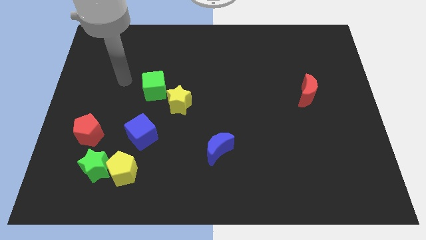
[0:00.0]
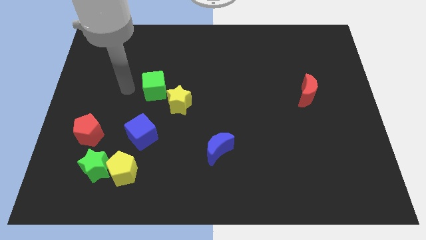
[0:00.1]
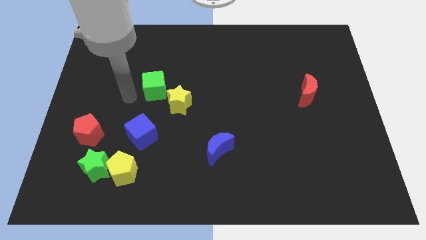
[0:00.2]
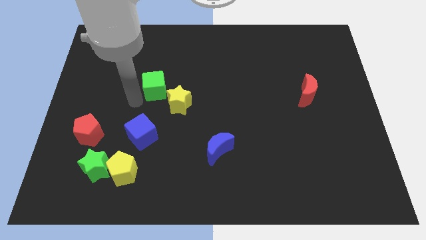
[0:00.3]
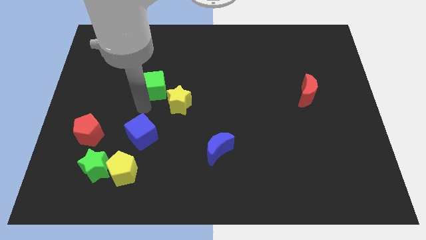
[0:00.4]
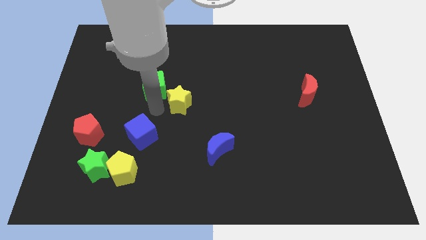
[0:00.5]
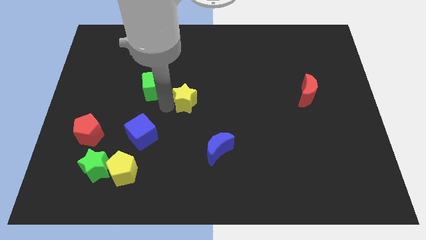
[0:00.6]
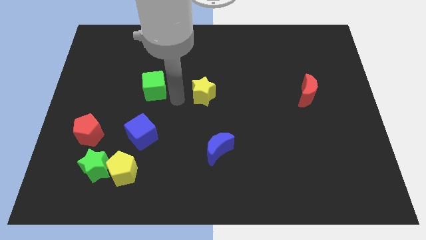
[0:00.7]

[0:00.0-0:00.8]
separate the green cube from the yellow star

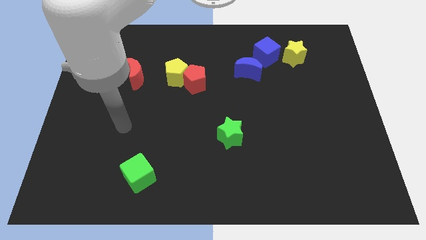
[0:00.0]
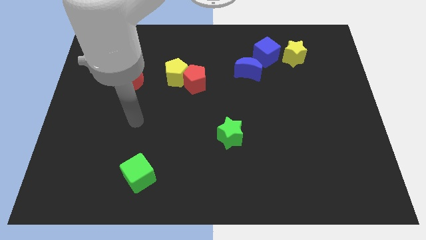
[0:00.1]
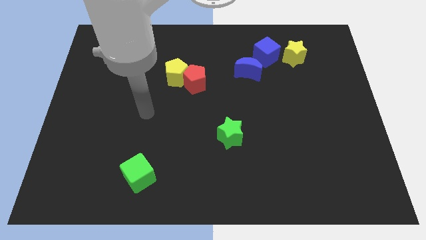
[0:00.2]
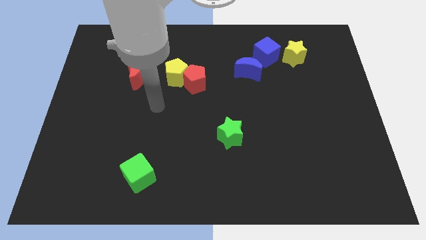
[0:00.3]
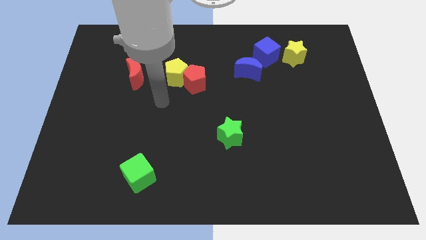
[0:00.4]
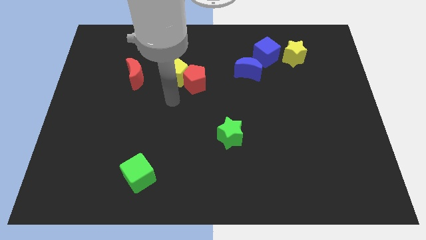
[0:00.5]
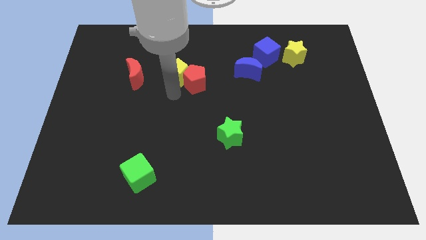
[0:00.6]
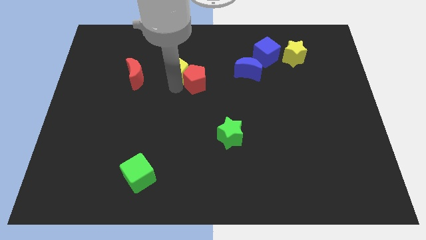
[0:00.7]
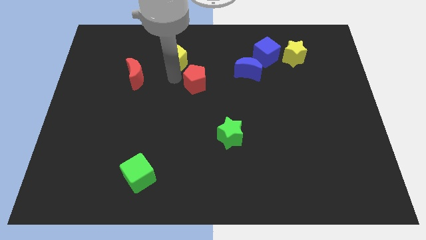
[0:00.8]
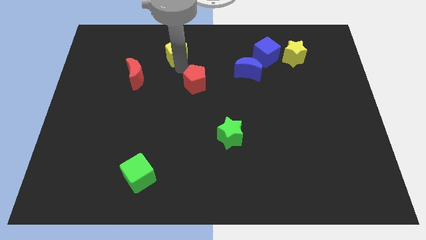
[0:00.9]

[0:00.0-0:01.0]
move the red pentagon away from the yellow pentagon

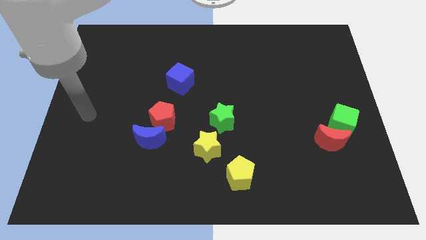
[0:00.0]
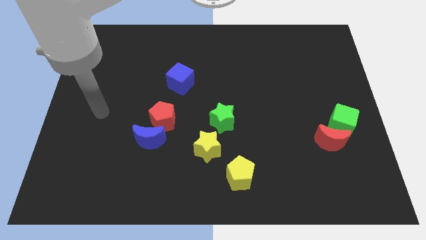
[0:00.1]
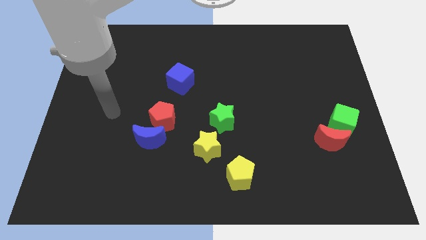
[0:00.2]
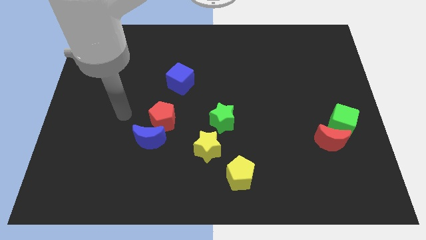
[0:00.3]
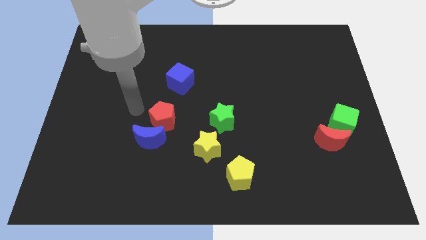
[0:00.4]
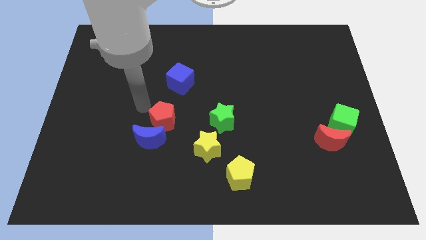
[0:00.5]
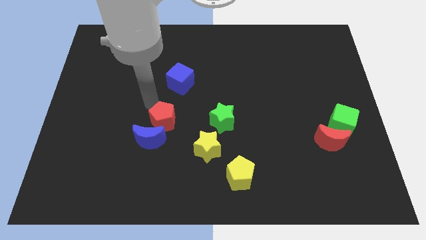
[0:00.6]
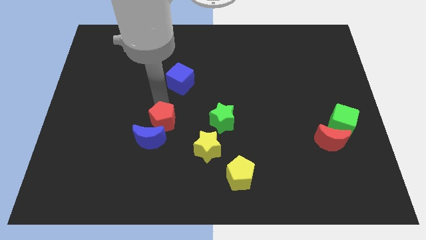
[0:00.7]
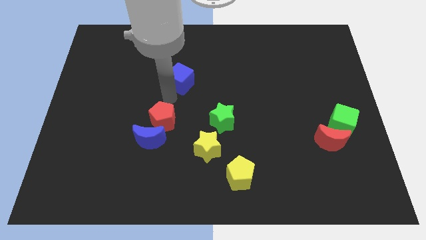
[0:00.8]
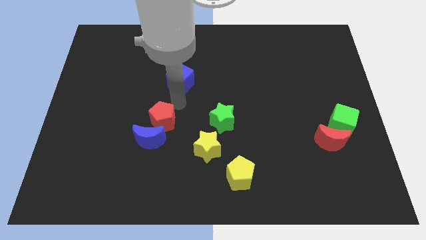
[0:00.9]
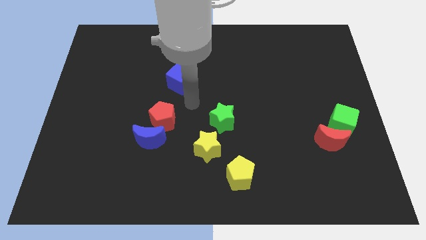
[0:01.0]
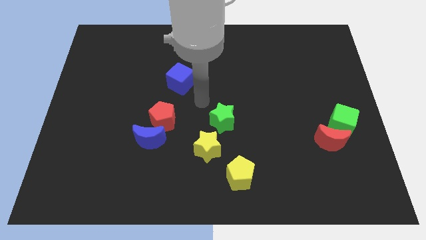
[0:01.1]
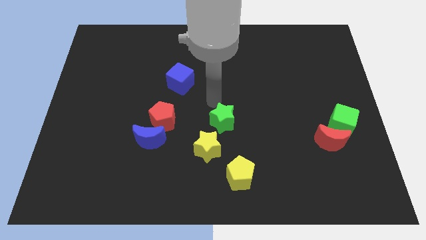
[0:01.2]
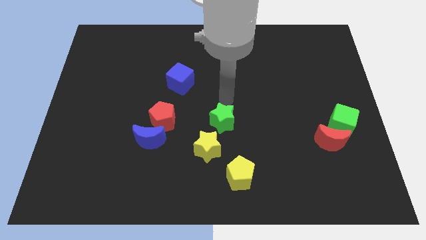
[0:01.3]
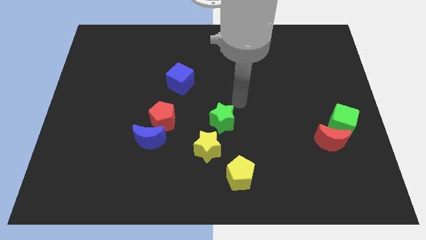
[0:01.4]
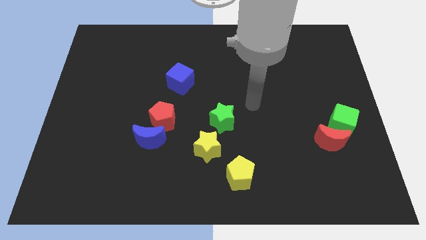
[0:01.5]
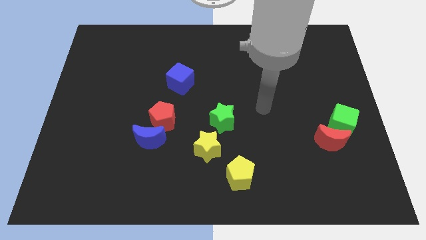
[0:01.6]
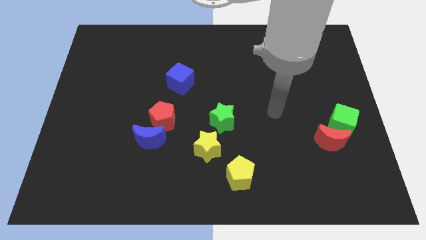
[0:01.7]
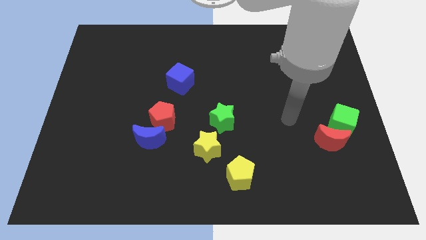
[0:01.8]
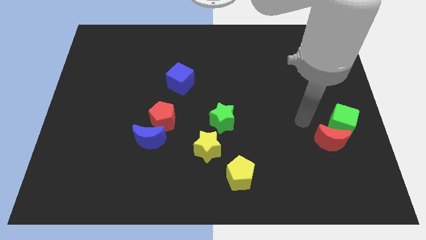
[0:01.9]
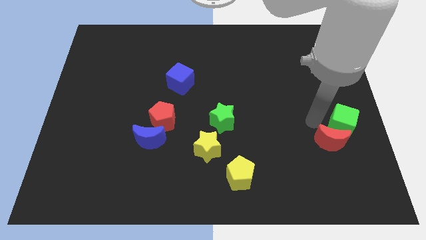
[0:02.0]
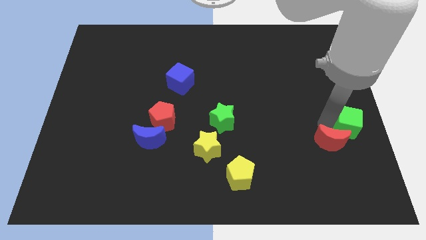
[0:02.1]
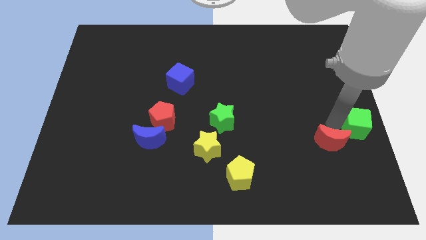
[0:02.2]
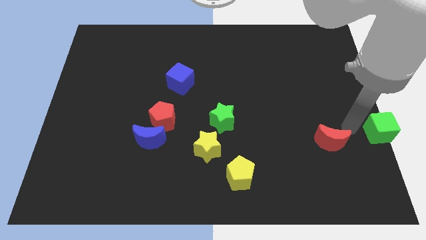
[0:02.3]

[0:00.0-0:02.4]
separate the red moon from the green cube

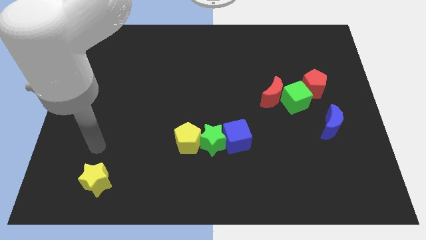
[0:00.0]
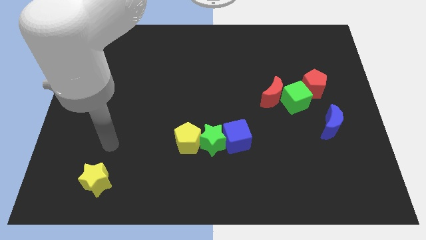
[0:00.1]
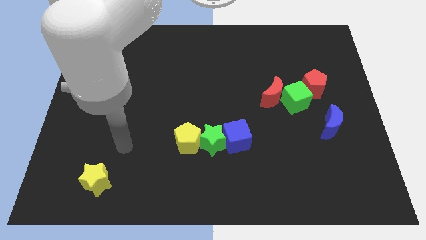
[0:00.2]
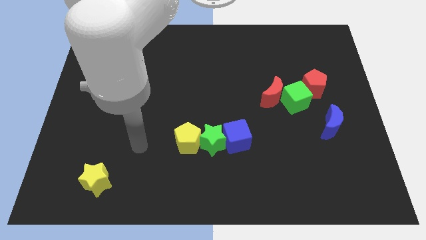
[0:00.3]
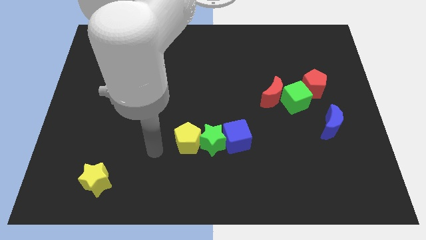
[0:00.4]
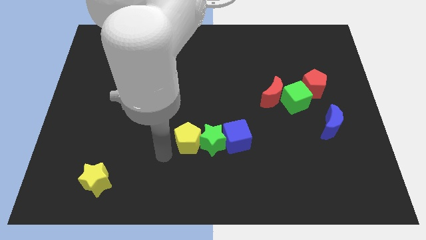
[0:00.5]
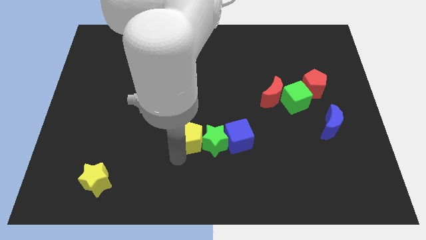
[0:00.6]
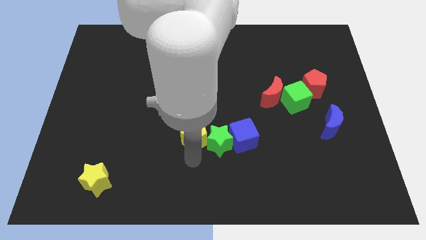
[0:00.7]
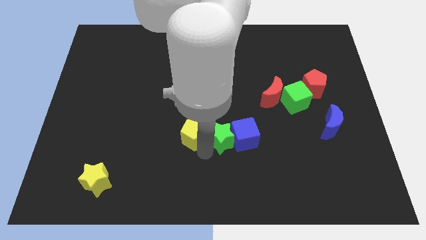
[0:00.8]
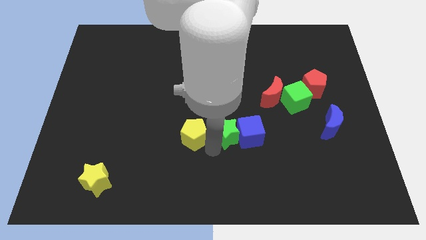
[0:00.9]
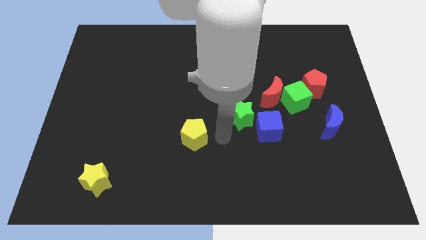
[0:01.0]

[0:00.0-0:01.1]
separate the yellow pentagon from the green star

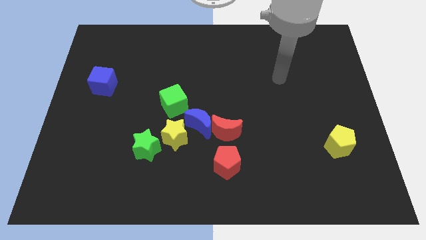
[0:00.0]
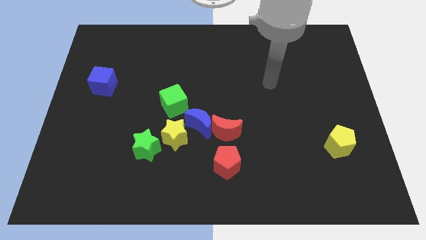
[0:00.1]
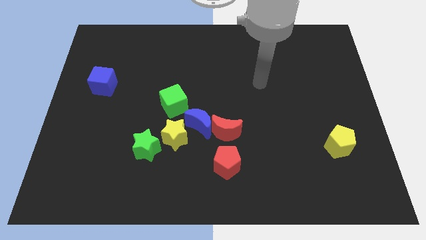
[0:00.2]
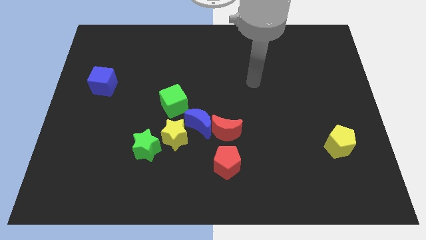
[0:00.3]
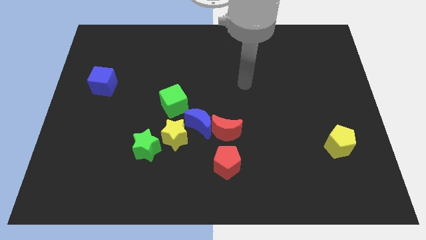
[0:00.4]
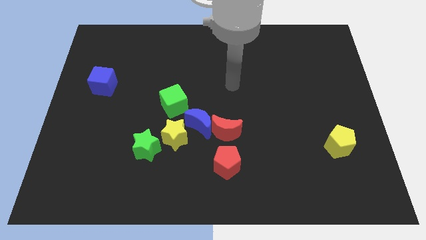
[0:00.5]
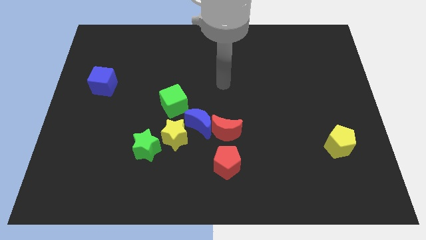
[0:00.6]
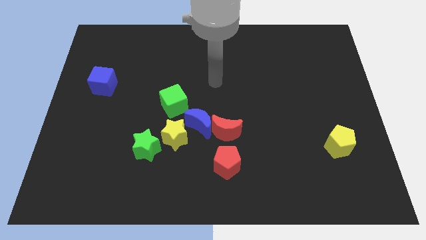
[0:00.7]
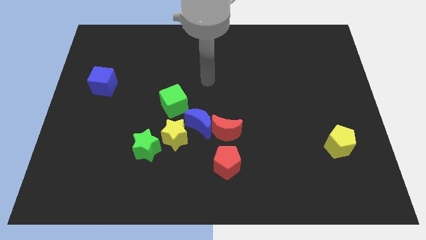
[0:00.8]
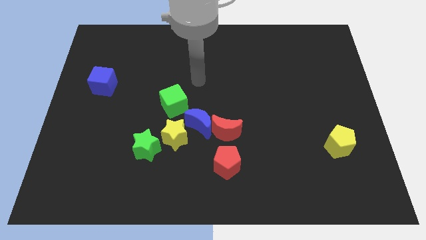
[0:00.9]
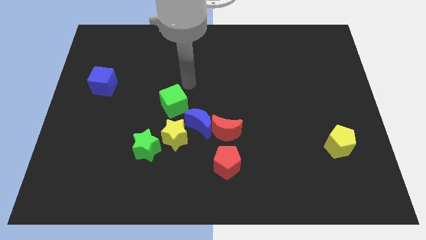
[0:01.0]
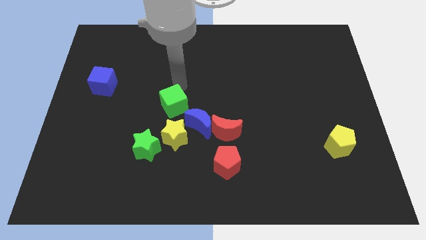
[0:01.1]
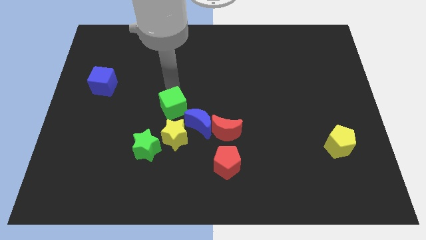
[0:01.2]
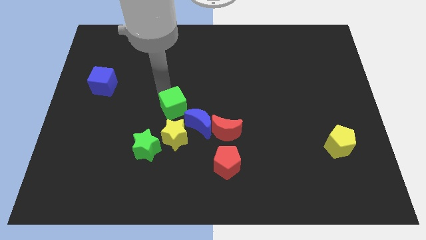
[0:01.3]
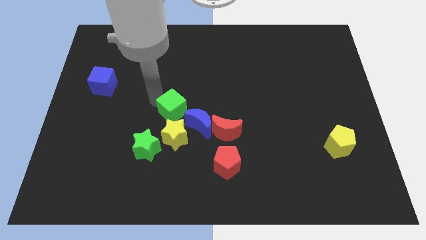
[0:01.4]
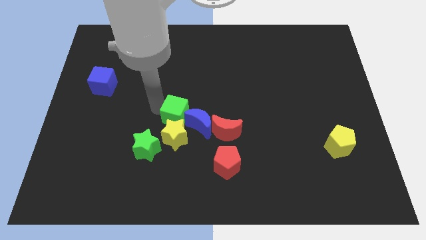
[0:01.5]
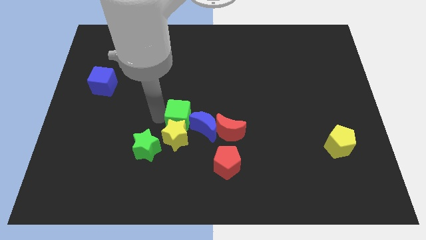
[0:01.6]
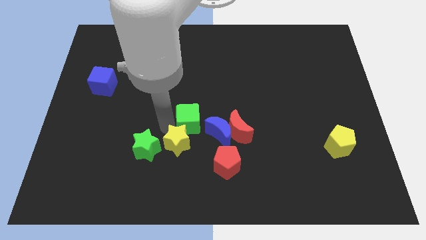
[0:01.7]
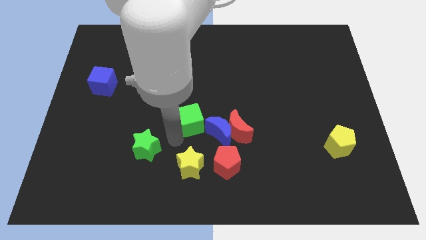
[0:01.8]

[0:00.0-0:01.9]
move the green star away from the yellow star

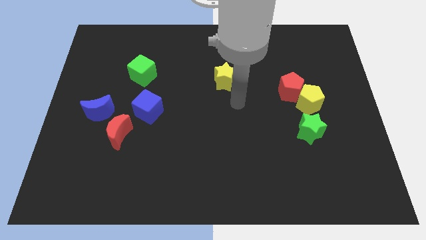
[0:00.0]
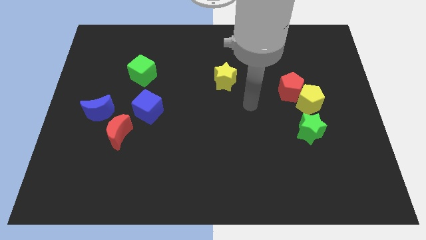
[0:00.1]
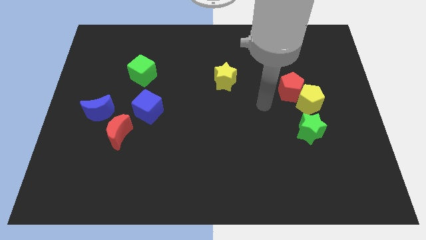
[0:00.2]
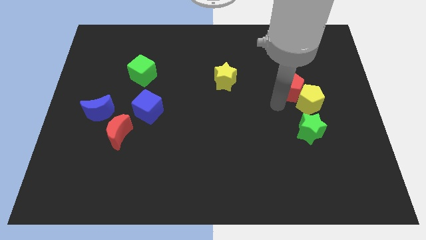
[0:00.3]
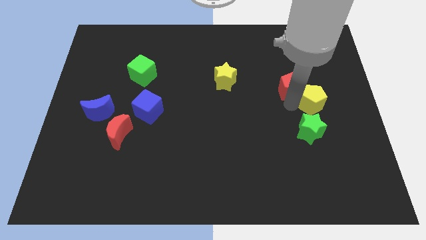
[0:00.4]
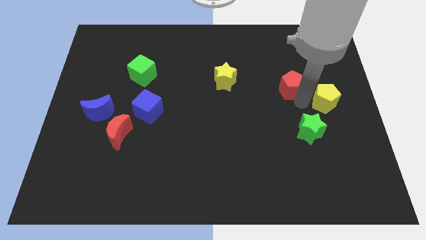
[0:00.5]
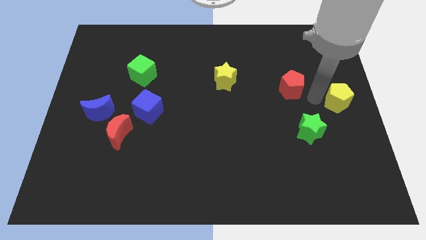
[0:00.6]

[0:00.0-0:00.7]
pull the red pentagon apart from the yellow pentagon

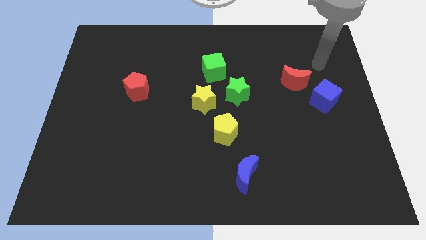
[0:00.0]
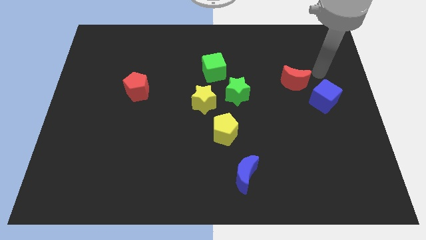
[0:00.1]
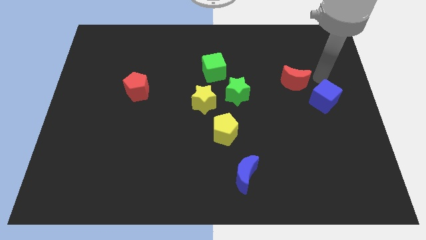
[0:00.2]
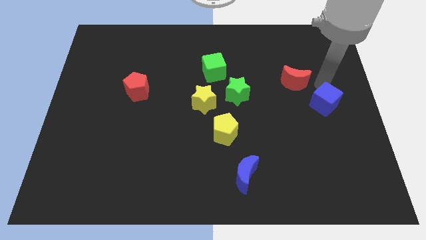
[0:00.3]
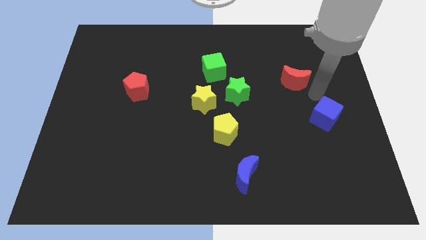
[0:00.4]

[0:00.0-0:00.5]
move the red moon away from the blue cube

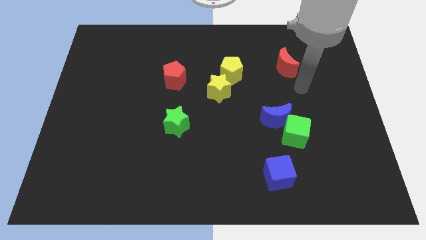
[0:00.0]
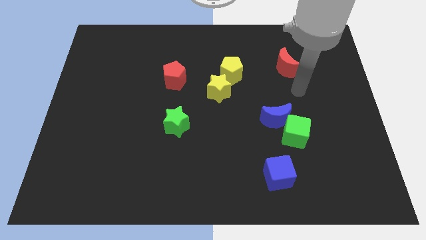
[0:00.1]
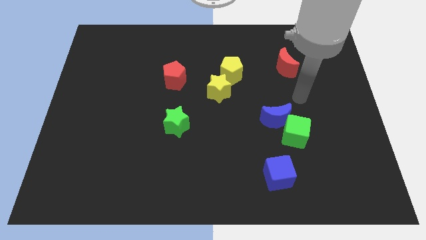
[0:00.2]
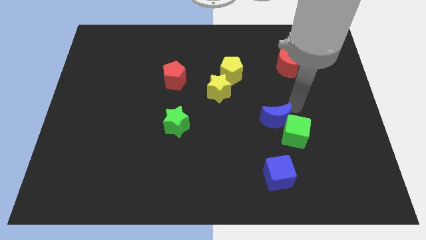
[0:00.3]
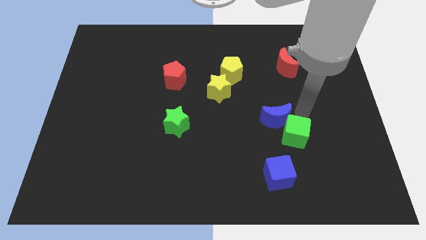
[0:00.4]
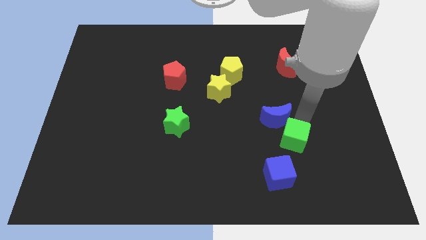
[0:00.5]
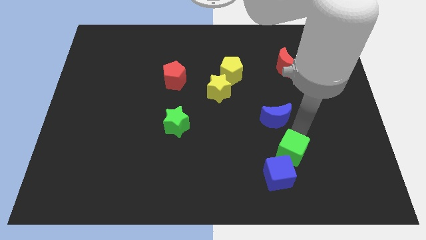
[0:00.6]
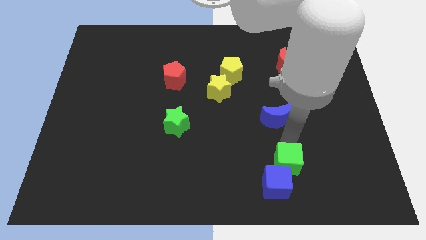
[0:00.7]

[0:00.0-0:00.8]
move the blue moon away from the green cube

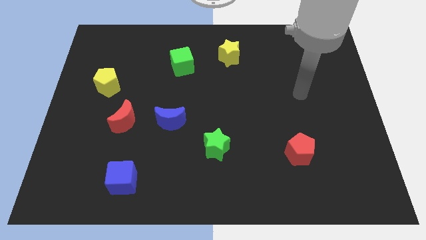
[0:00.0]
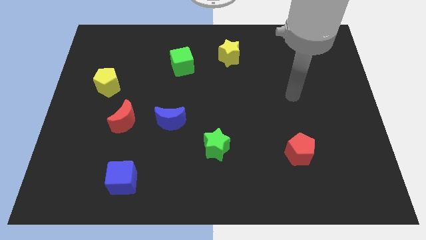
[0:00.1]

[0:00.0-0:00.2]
move the red moon away from the blue moon

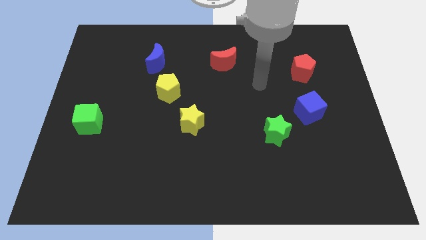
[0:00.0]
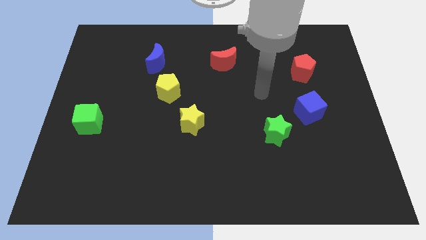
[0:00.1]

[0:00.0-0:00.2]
separate the blue cube from the green star
